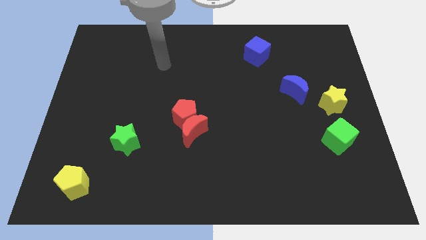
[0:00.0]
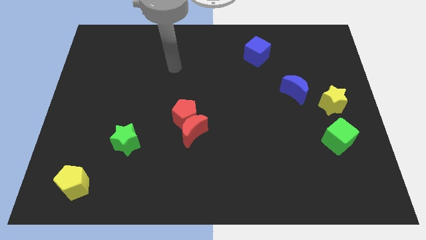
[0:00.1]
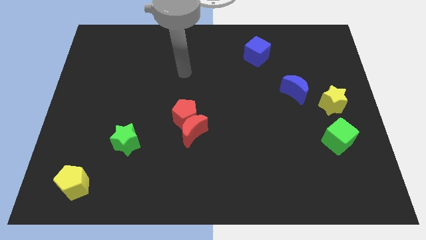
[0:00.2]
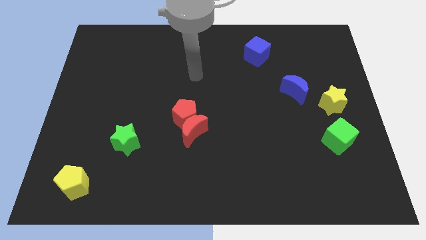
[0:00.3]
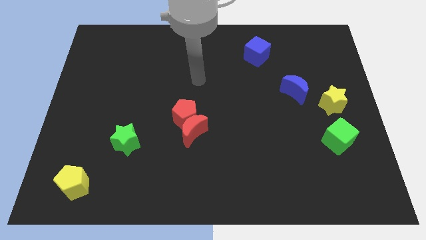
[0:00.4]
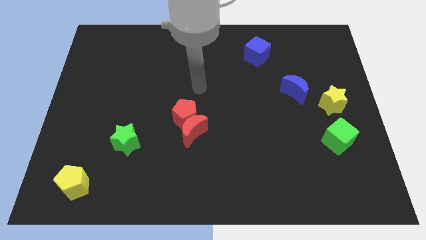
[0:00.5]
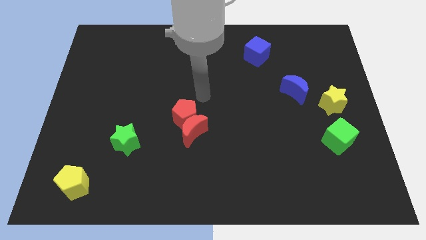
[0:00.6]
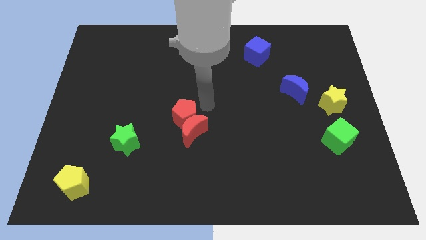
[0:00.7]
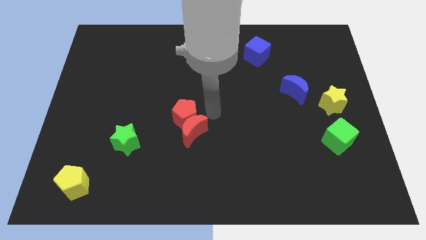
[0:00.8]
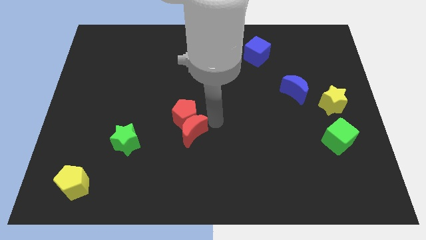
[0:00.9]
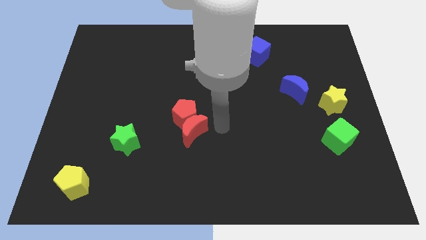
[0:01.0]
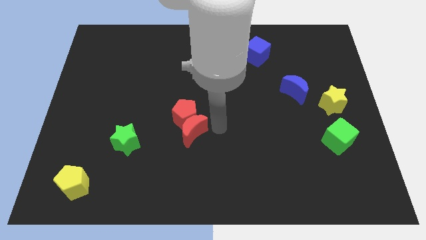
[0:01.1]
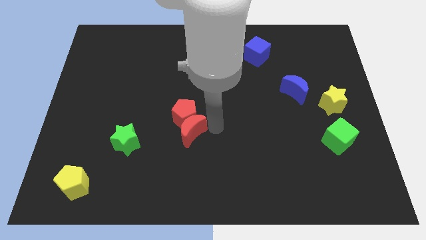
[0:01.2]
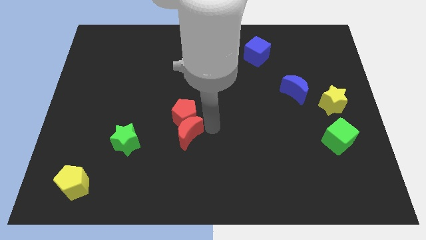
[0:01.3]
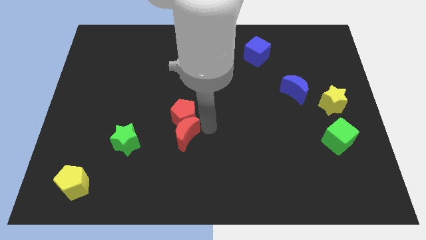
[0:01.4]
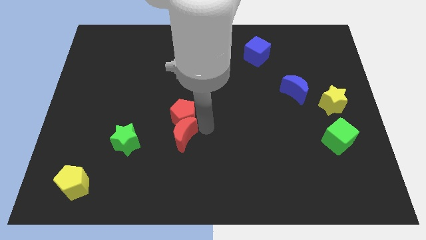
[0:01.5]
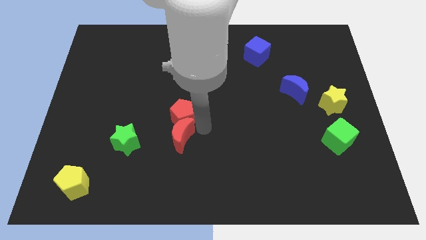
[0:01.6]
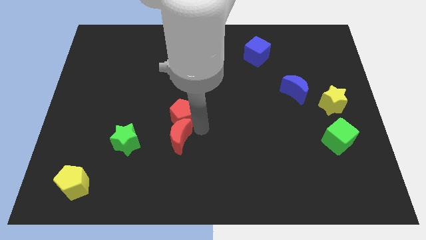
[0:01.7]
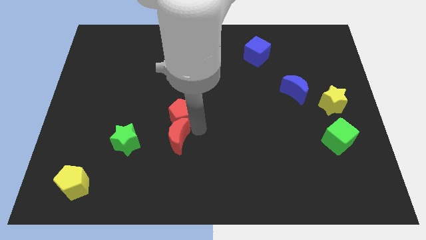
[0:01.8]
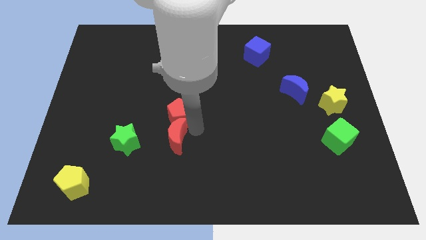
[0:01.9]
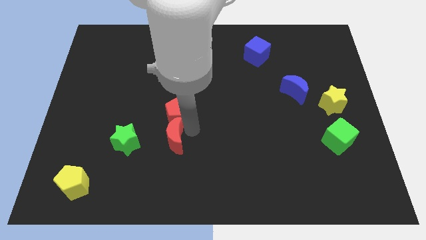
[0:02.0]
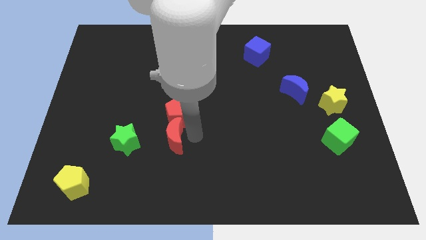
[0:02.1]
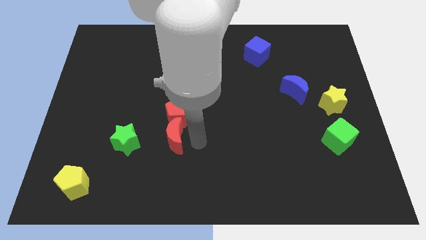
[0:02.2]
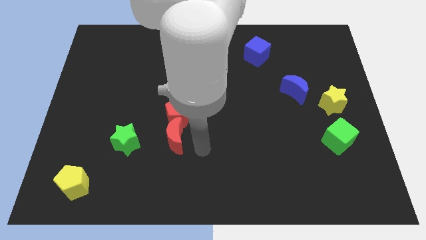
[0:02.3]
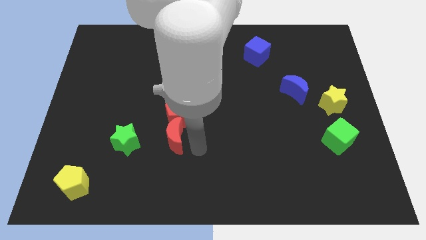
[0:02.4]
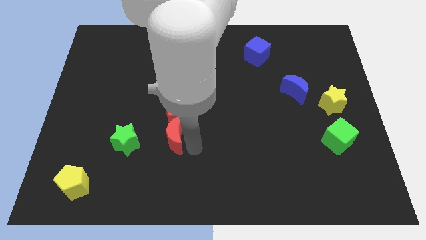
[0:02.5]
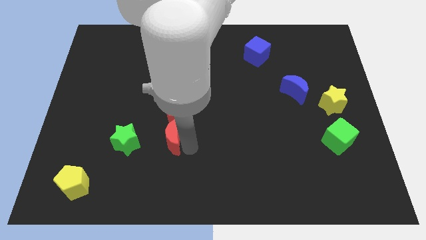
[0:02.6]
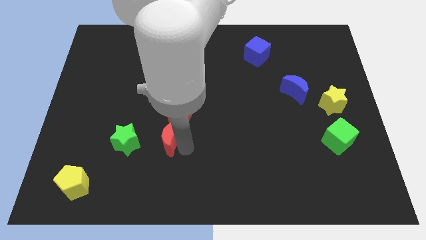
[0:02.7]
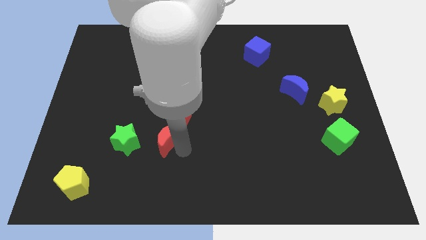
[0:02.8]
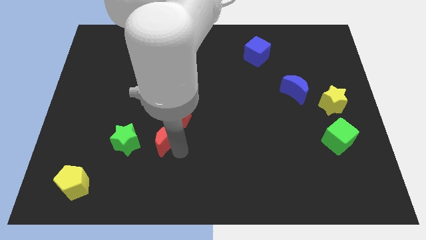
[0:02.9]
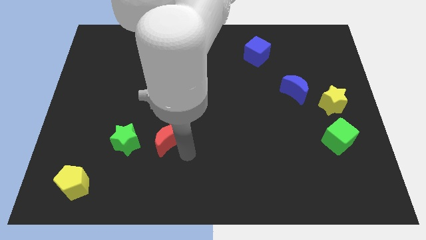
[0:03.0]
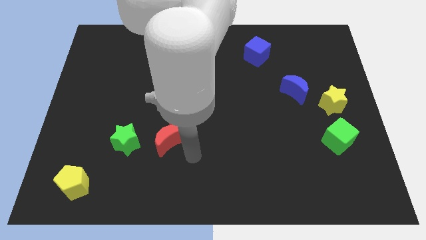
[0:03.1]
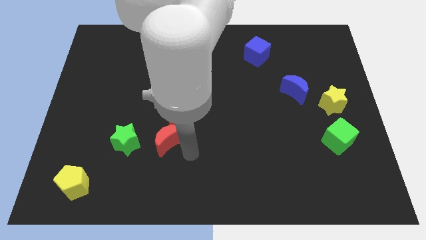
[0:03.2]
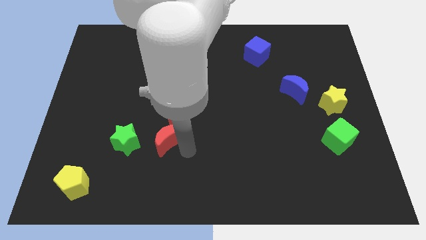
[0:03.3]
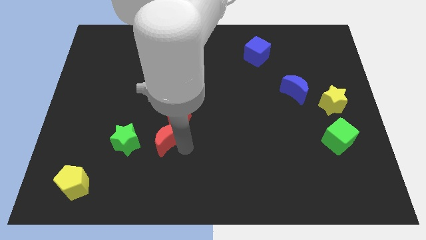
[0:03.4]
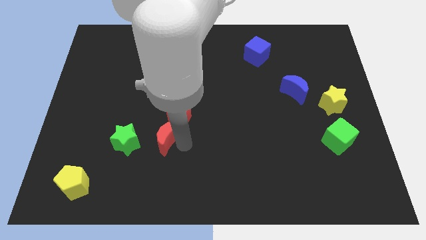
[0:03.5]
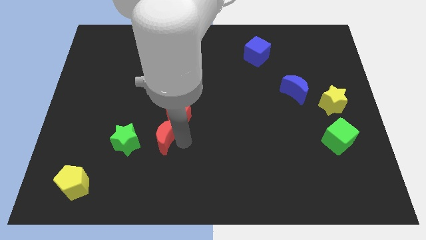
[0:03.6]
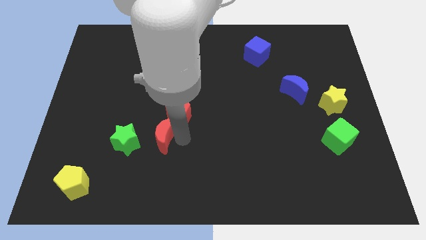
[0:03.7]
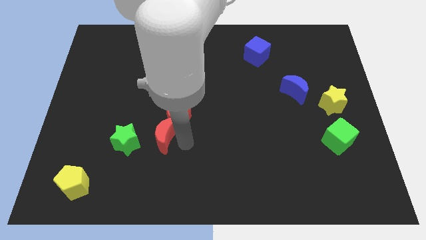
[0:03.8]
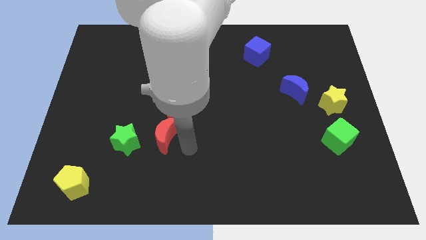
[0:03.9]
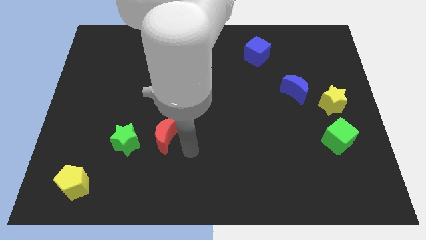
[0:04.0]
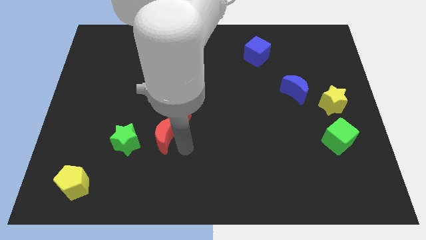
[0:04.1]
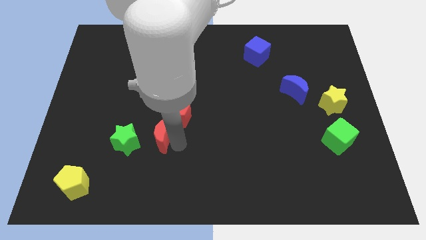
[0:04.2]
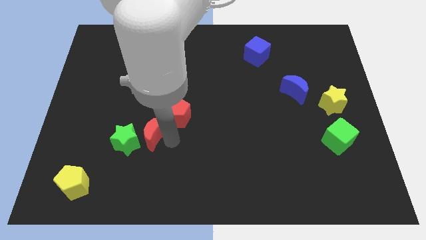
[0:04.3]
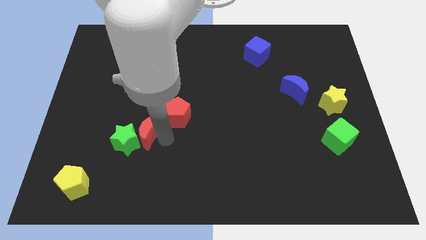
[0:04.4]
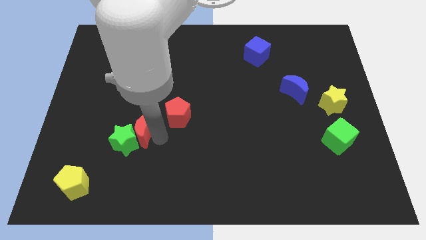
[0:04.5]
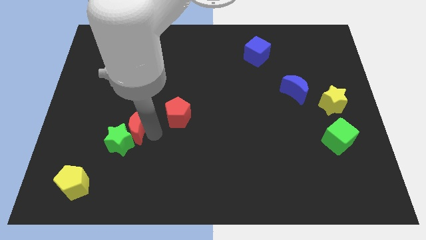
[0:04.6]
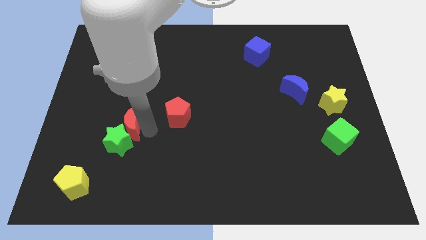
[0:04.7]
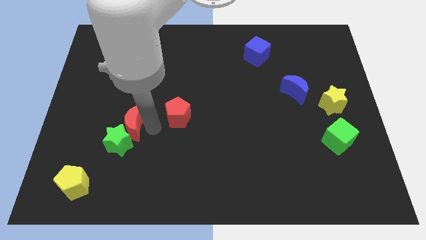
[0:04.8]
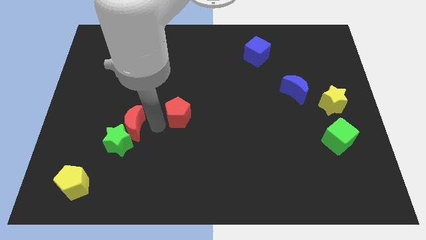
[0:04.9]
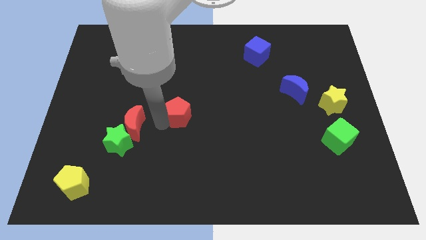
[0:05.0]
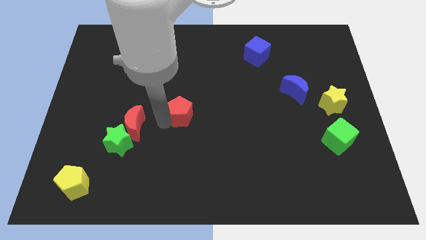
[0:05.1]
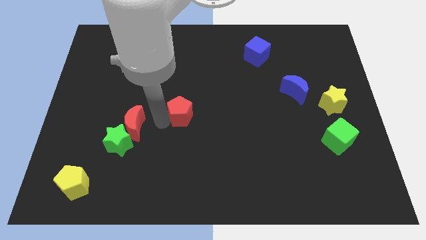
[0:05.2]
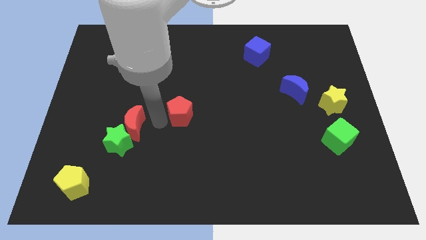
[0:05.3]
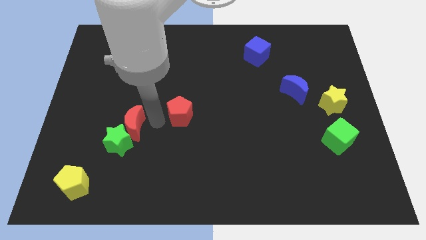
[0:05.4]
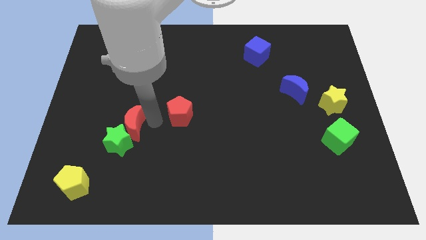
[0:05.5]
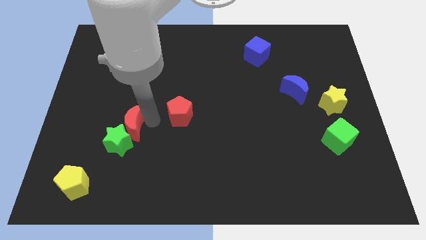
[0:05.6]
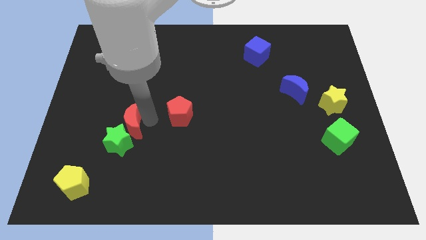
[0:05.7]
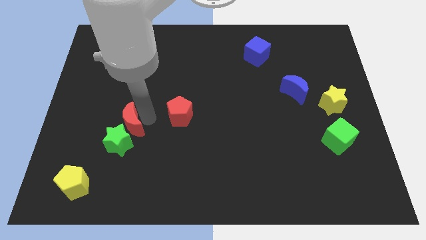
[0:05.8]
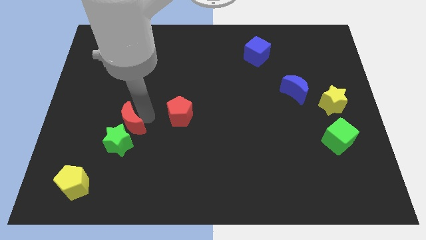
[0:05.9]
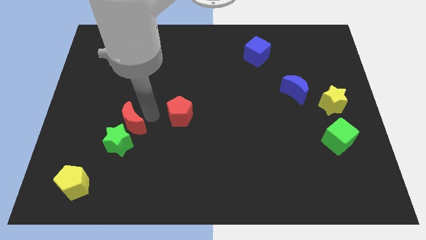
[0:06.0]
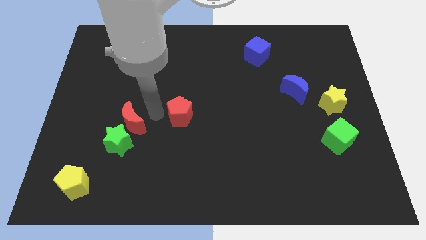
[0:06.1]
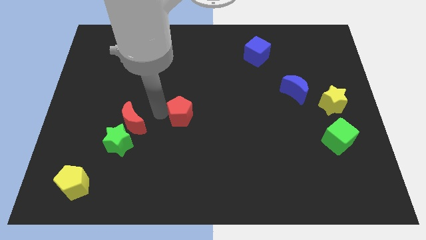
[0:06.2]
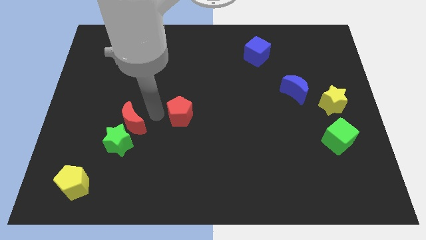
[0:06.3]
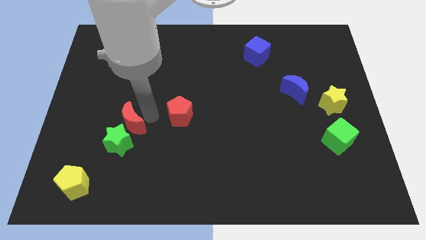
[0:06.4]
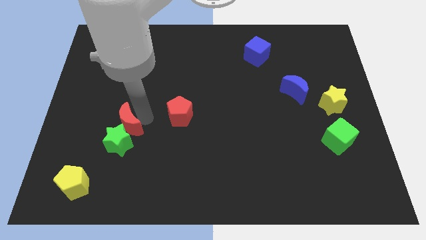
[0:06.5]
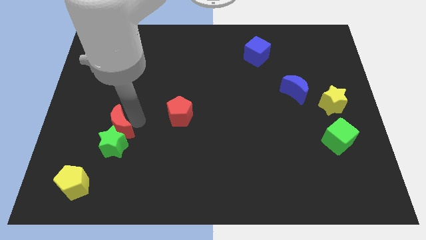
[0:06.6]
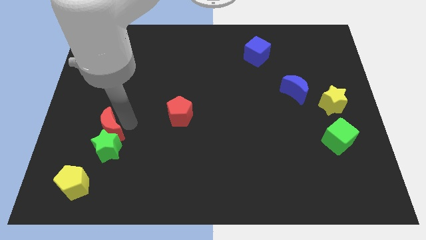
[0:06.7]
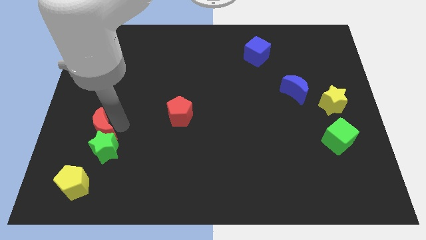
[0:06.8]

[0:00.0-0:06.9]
move the red moon to the top side of the yellow pentagon

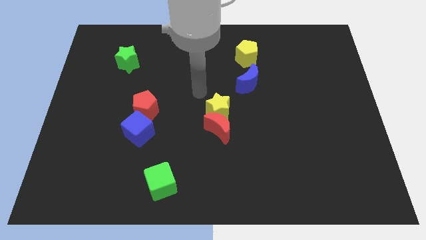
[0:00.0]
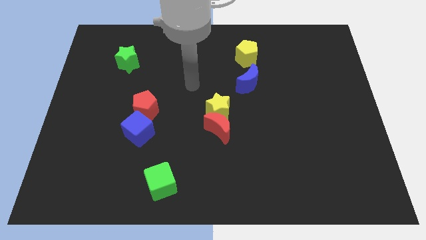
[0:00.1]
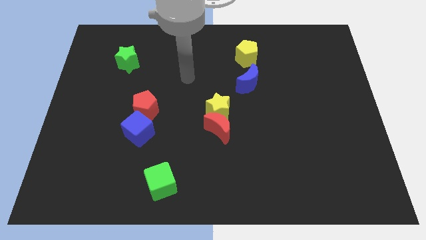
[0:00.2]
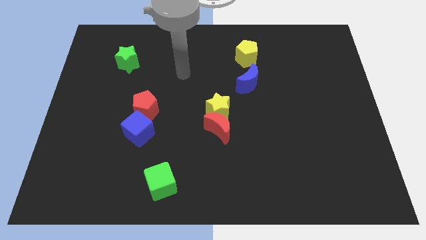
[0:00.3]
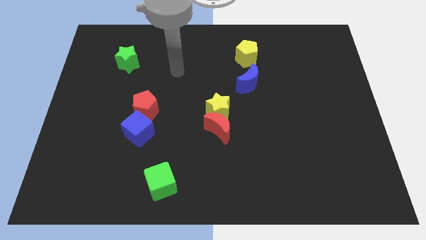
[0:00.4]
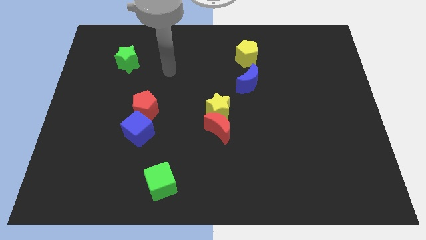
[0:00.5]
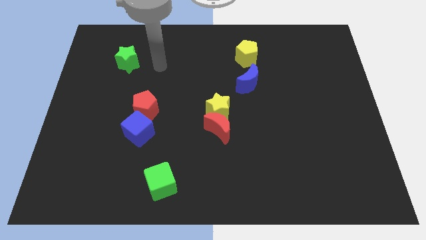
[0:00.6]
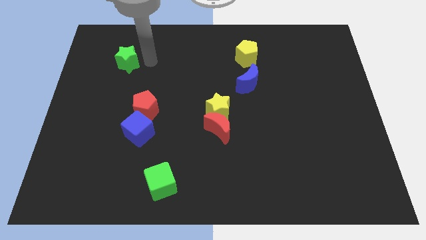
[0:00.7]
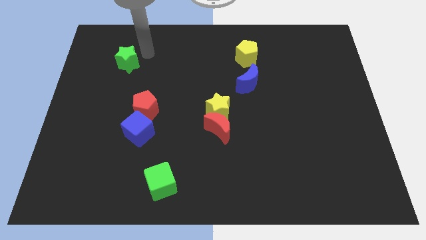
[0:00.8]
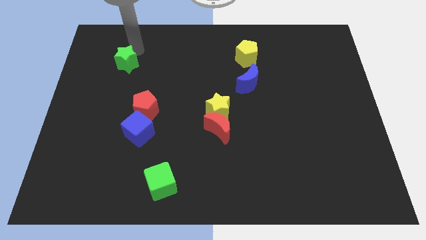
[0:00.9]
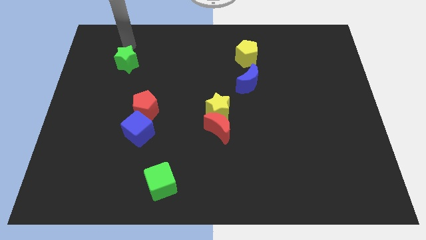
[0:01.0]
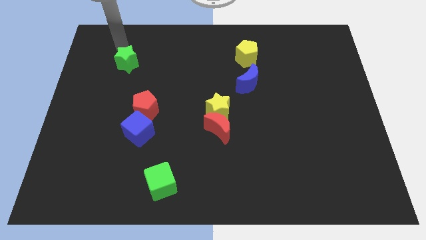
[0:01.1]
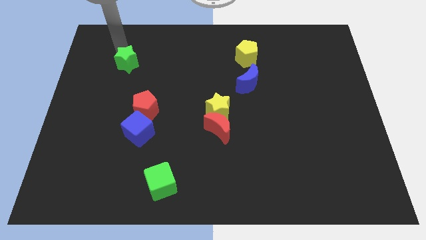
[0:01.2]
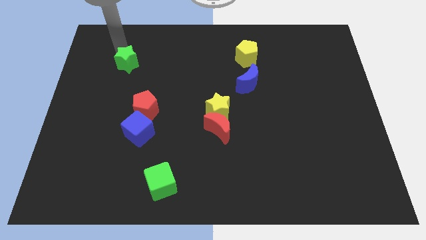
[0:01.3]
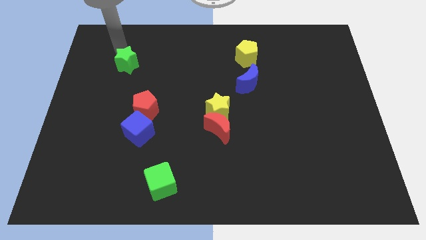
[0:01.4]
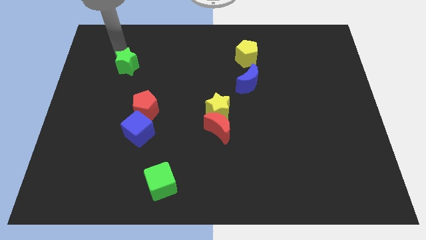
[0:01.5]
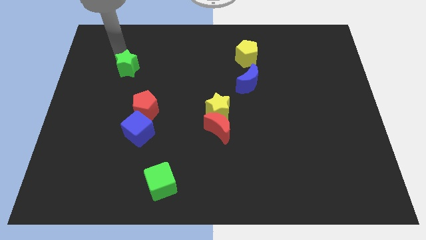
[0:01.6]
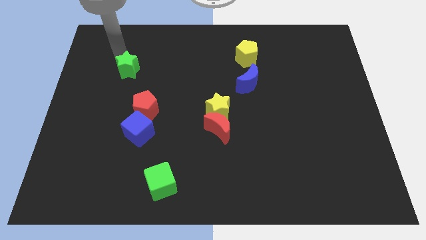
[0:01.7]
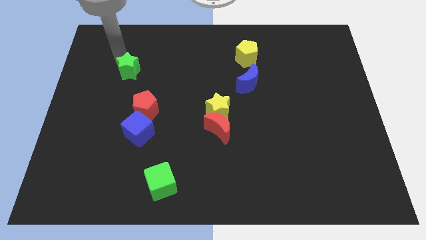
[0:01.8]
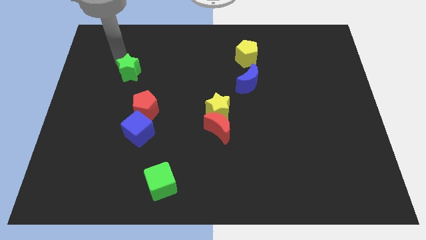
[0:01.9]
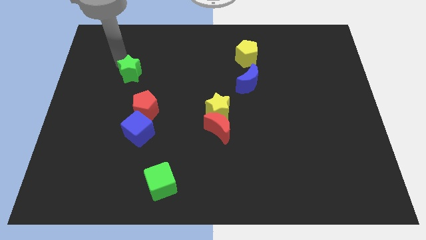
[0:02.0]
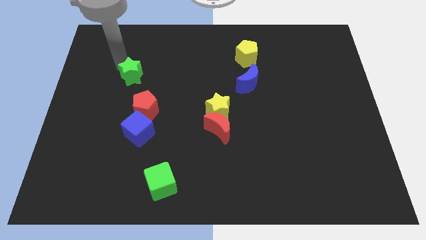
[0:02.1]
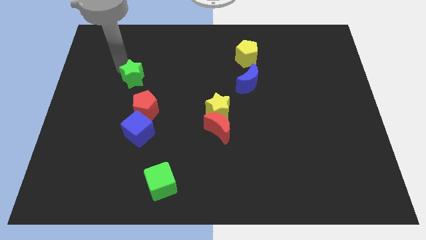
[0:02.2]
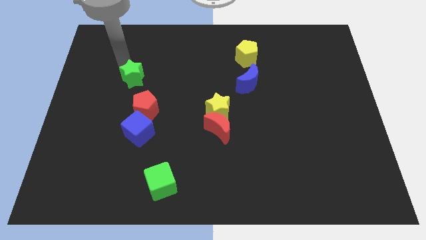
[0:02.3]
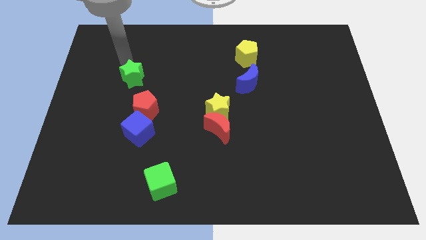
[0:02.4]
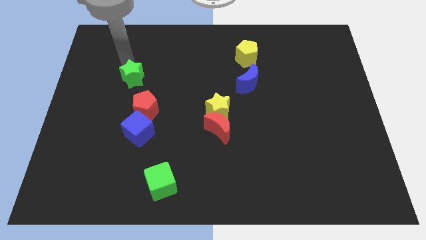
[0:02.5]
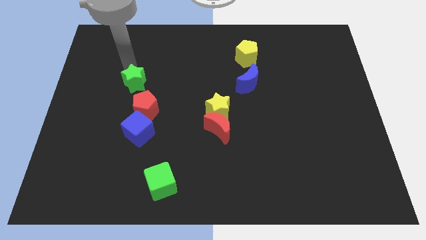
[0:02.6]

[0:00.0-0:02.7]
put the green star above the blue cube
